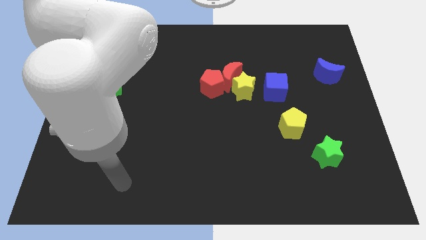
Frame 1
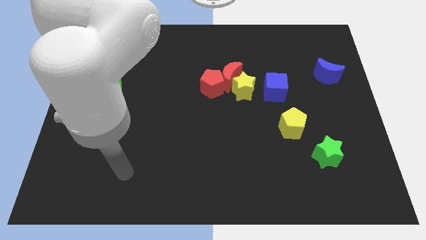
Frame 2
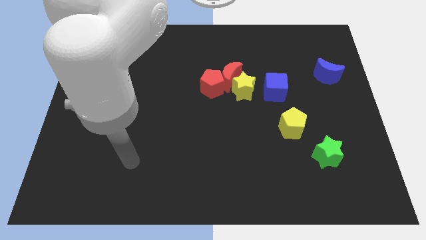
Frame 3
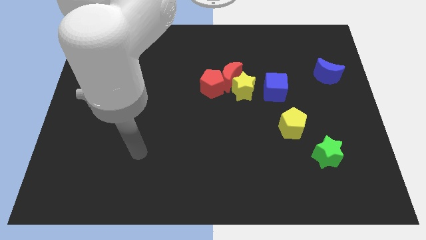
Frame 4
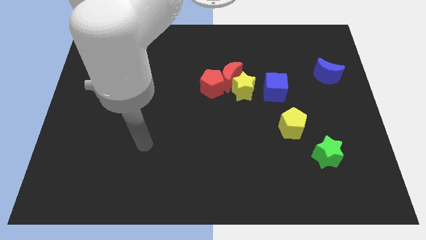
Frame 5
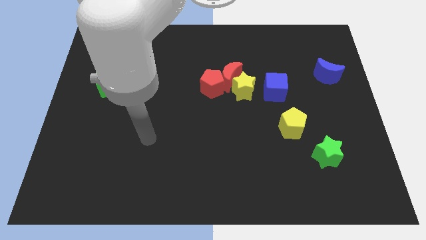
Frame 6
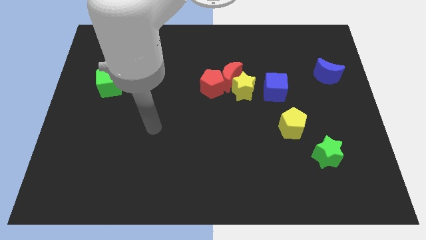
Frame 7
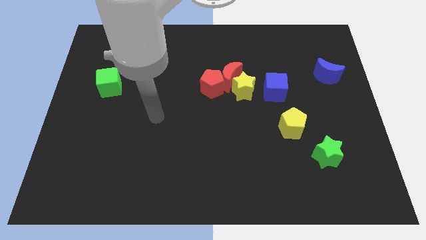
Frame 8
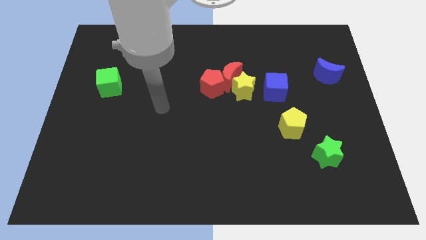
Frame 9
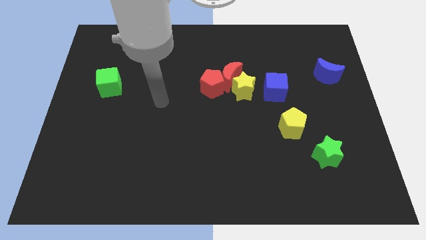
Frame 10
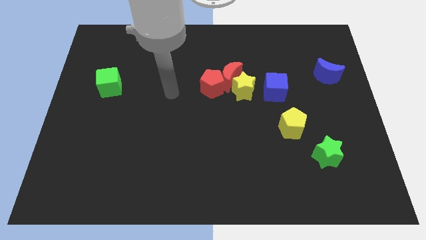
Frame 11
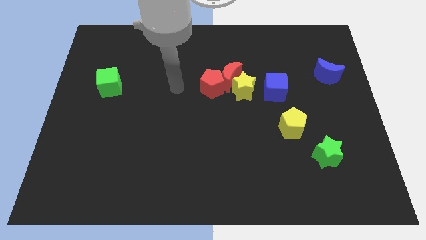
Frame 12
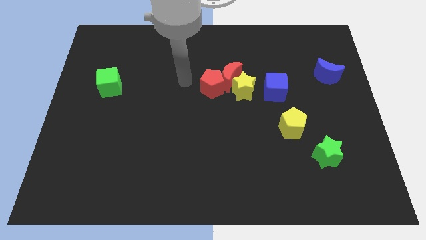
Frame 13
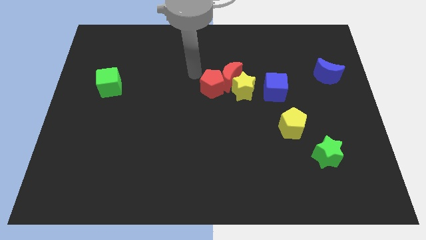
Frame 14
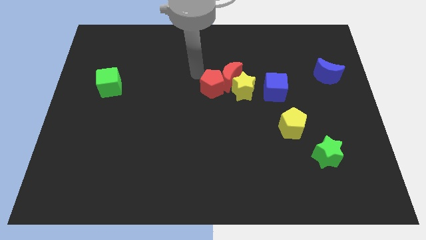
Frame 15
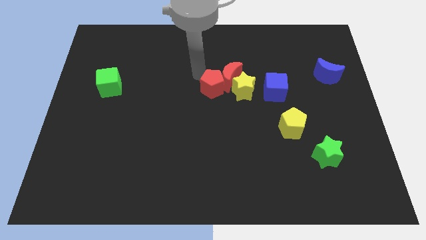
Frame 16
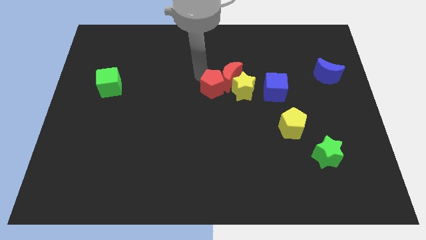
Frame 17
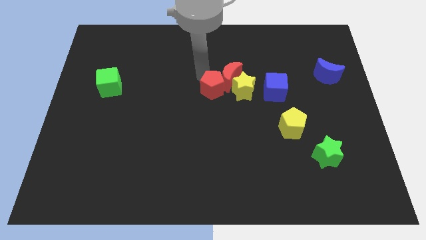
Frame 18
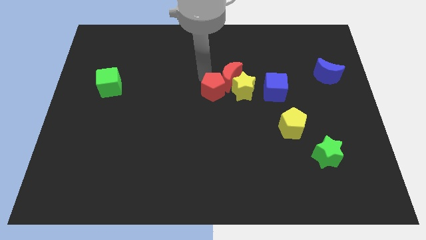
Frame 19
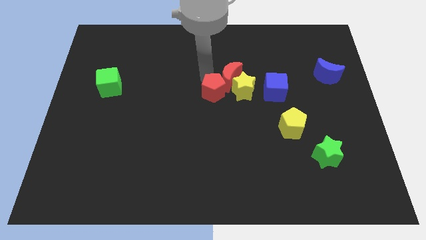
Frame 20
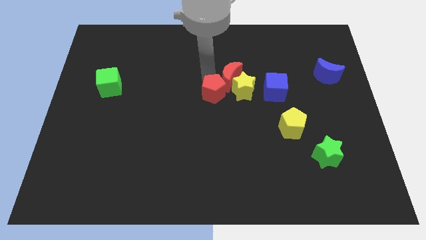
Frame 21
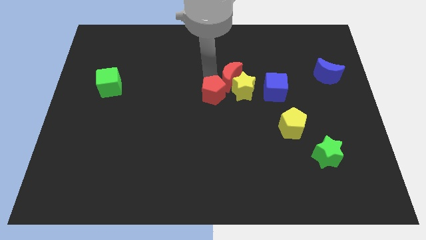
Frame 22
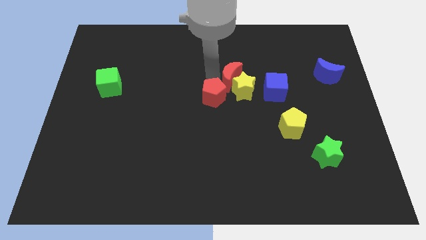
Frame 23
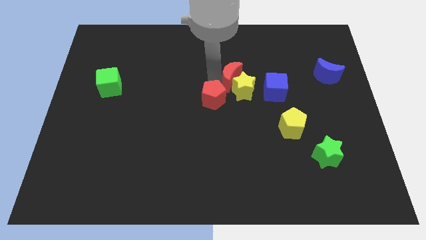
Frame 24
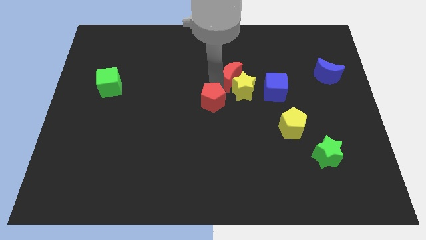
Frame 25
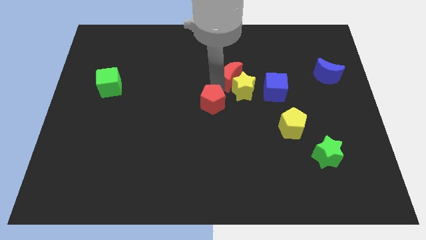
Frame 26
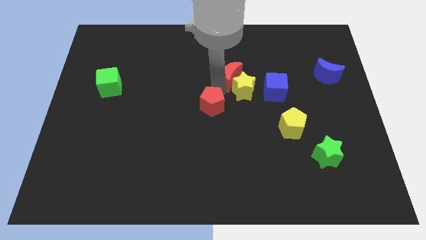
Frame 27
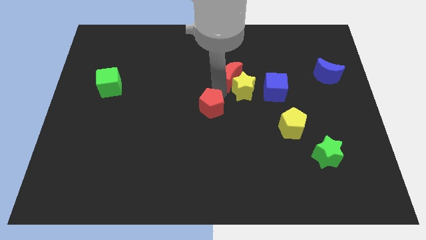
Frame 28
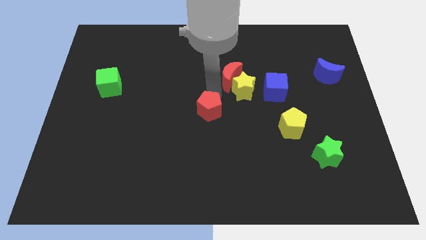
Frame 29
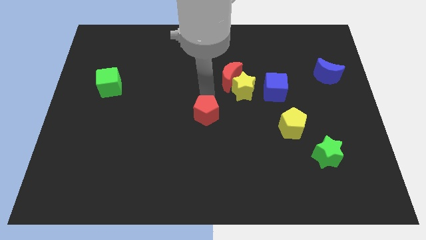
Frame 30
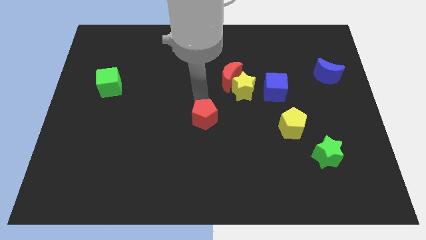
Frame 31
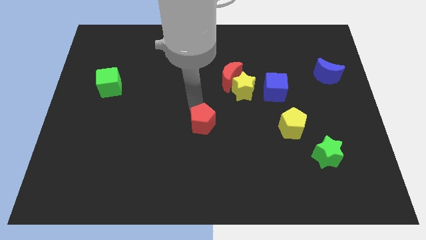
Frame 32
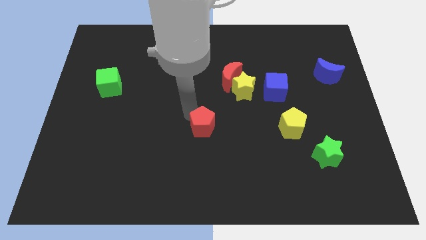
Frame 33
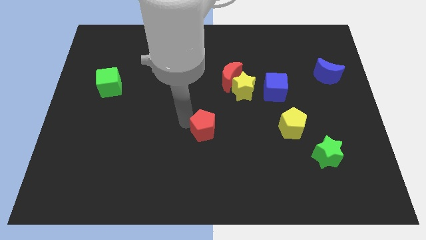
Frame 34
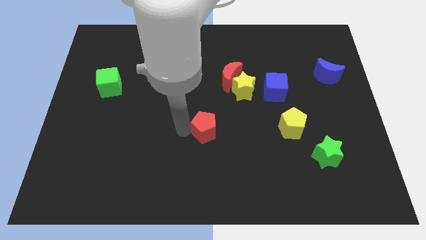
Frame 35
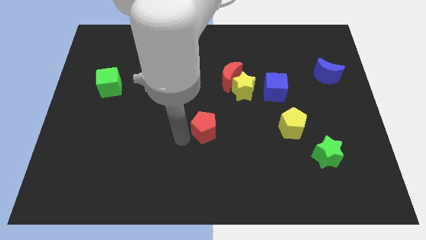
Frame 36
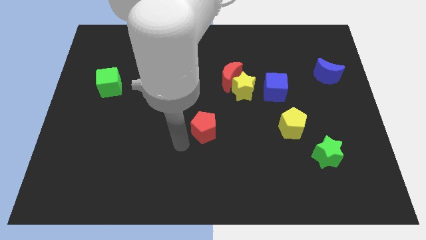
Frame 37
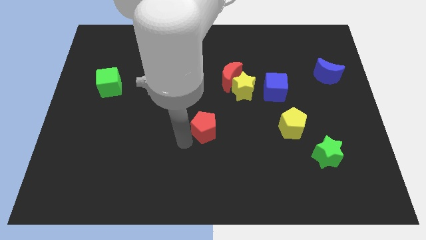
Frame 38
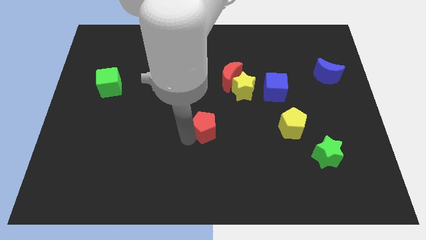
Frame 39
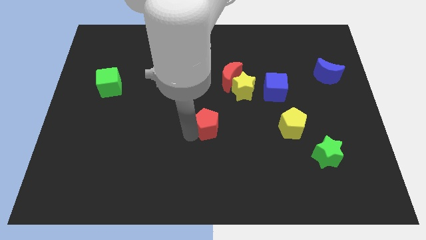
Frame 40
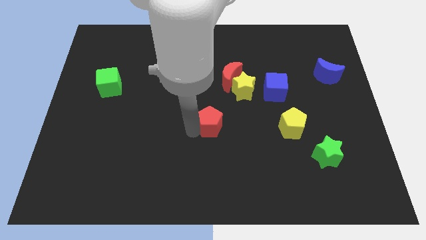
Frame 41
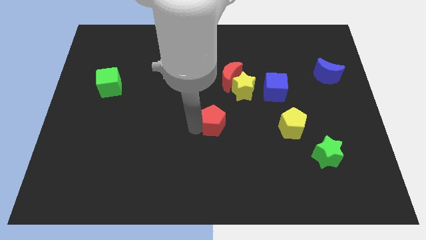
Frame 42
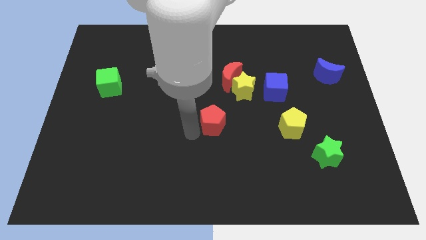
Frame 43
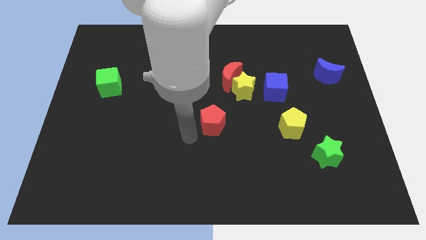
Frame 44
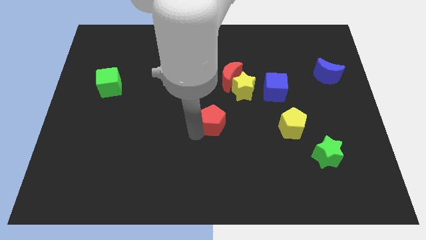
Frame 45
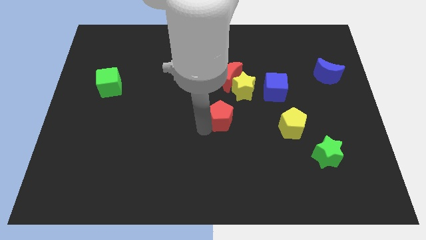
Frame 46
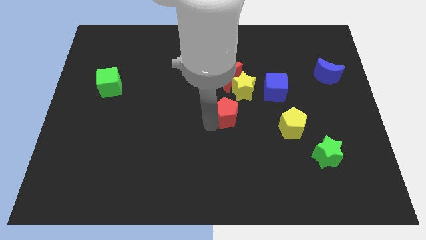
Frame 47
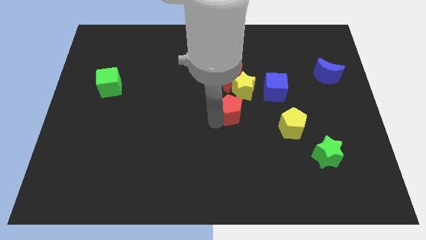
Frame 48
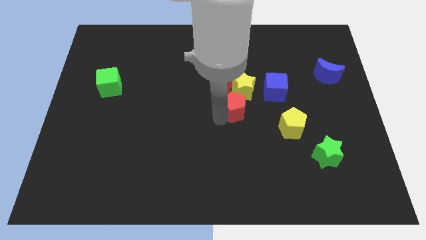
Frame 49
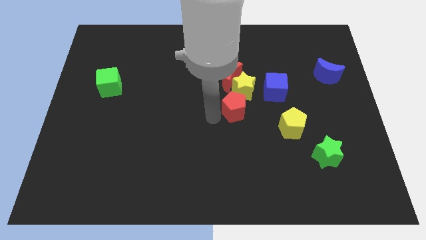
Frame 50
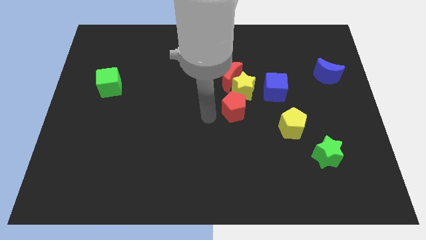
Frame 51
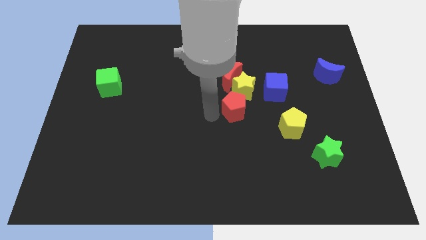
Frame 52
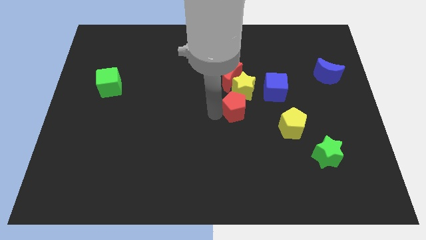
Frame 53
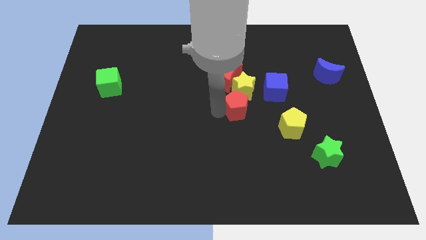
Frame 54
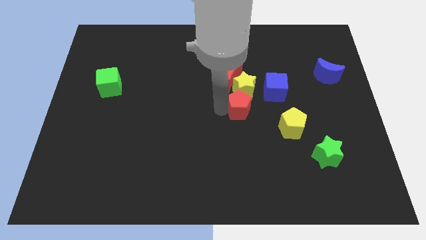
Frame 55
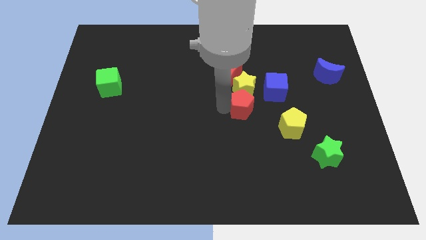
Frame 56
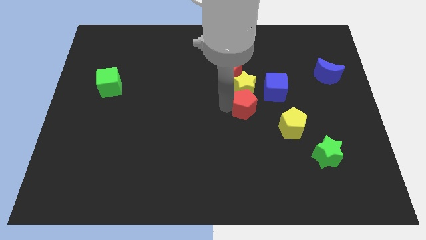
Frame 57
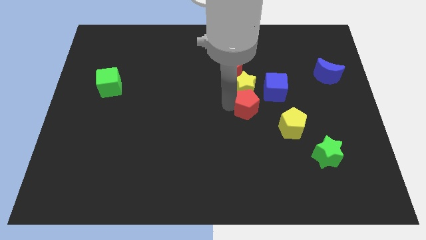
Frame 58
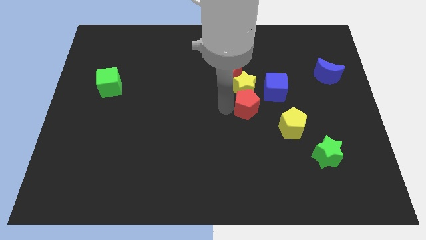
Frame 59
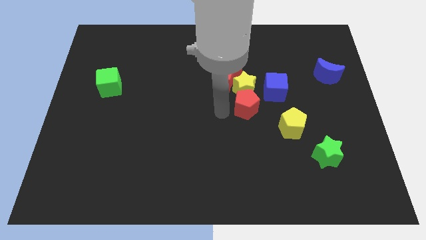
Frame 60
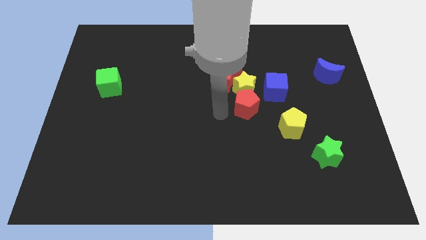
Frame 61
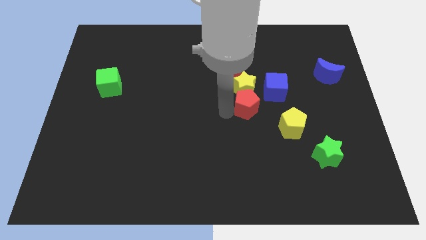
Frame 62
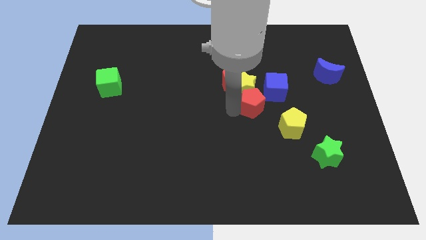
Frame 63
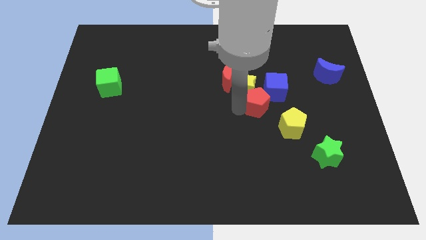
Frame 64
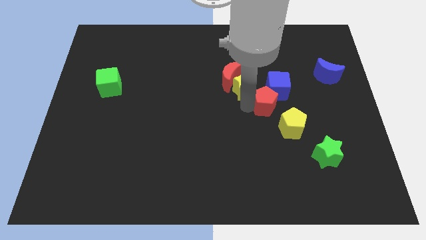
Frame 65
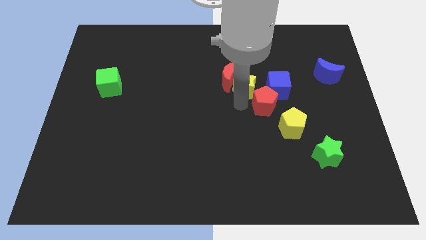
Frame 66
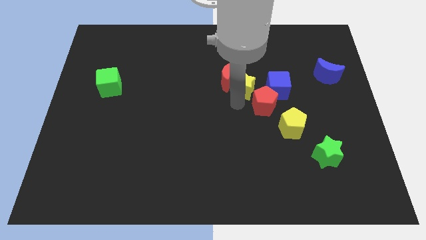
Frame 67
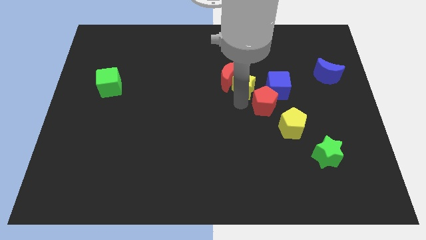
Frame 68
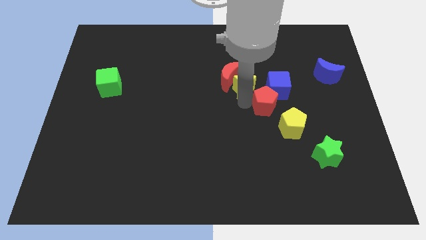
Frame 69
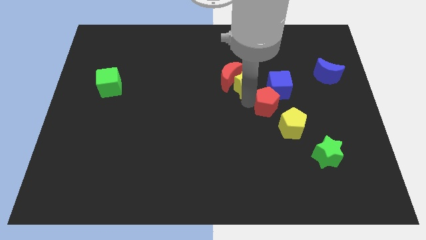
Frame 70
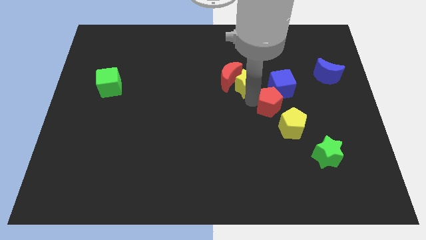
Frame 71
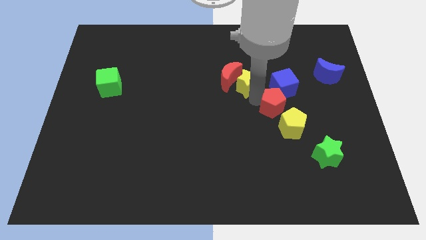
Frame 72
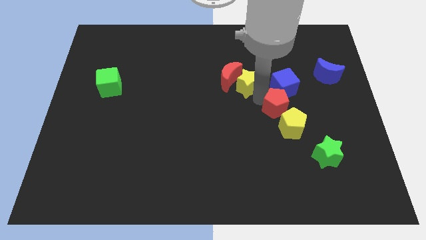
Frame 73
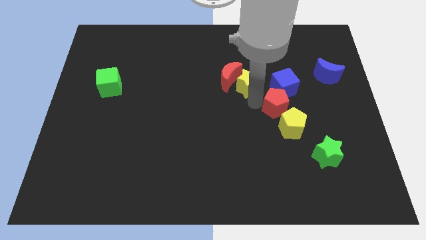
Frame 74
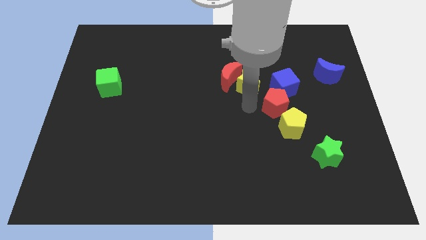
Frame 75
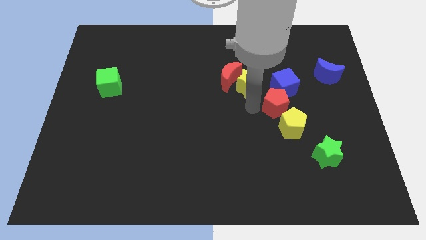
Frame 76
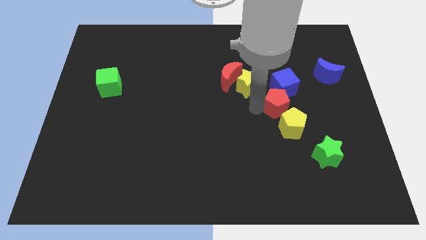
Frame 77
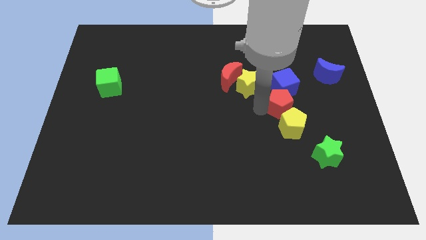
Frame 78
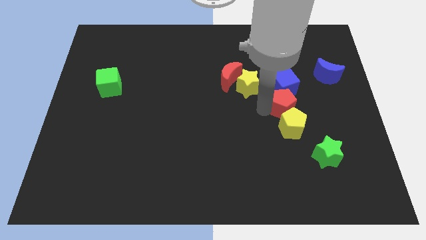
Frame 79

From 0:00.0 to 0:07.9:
slide the red pentagon to the bottom right of the blue cube
